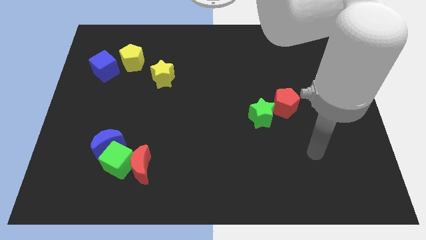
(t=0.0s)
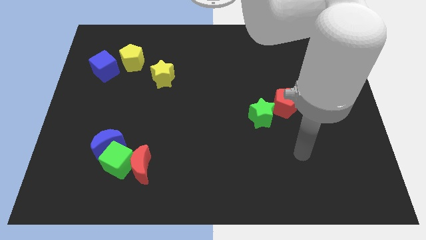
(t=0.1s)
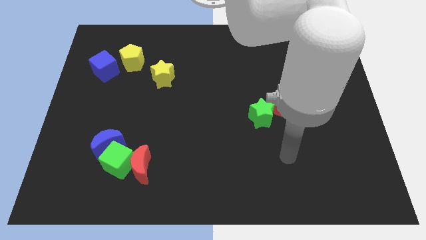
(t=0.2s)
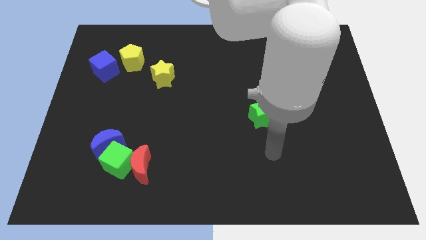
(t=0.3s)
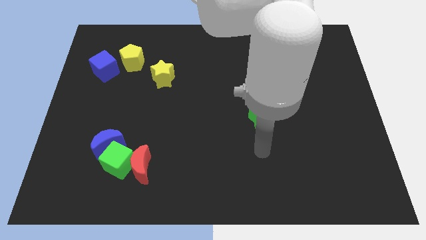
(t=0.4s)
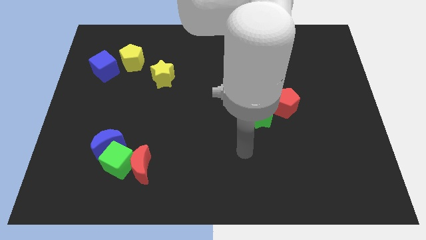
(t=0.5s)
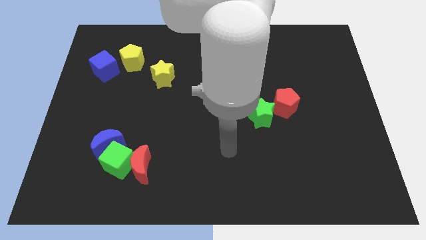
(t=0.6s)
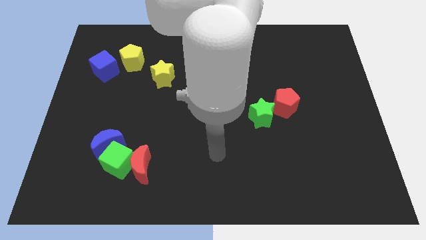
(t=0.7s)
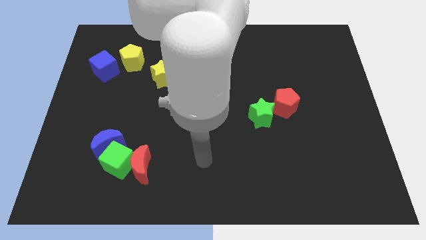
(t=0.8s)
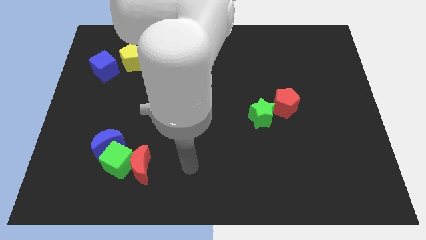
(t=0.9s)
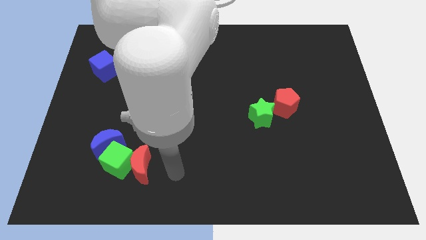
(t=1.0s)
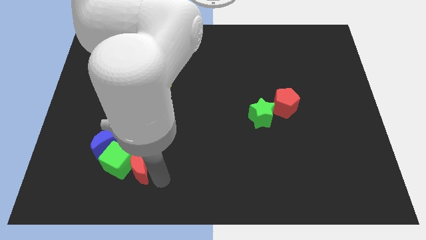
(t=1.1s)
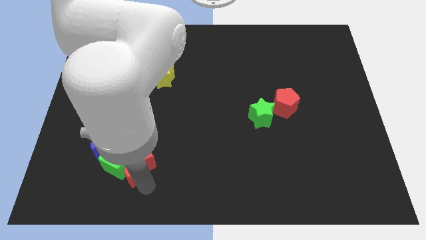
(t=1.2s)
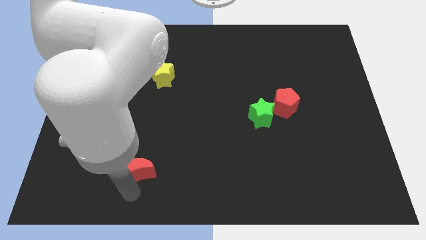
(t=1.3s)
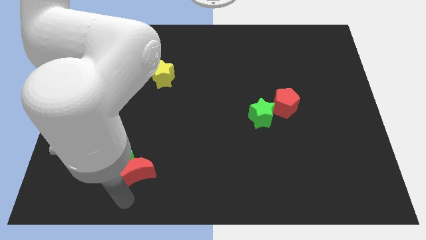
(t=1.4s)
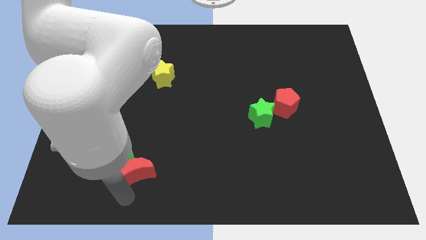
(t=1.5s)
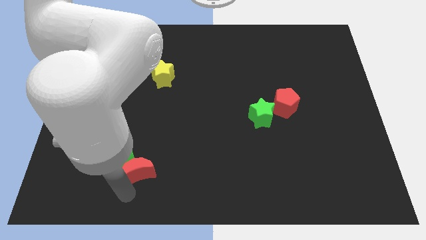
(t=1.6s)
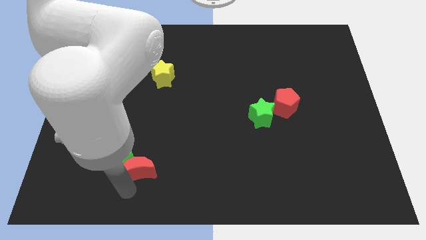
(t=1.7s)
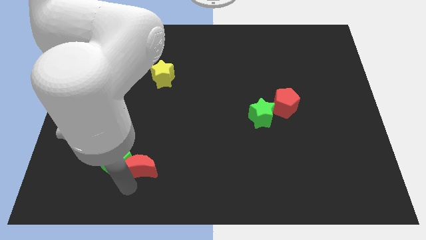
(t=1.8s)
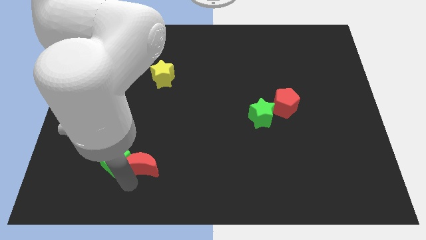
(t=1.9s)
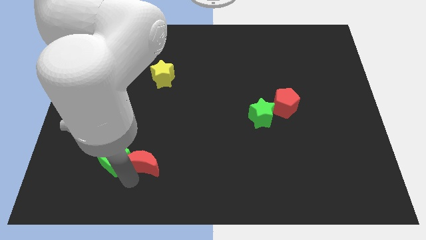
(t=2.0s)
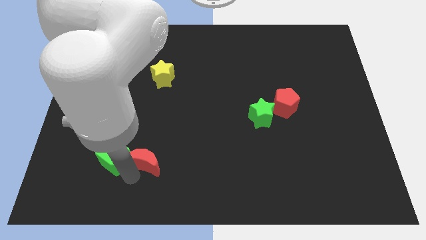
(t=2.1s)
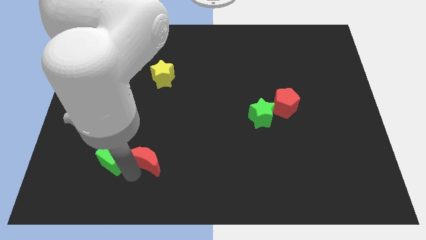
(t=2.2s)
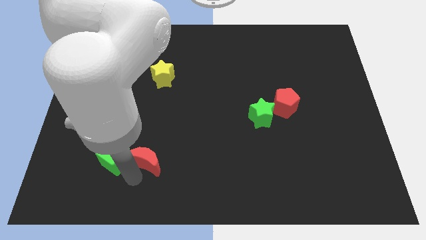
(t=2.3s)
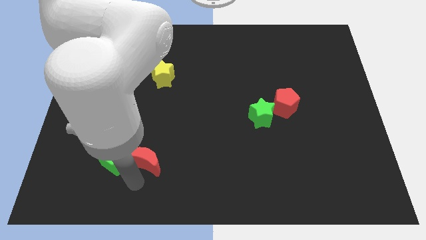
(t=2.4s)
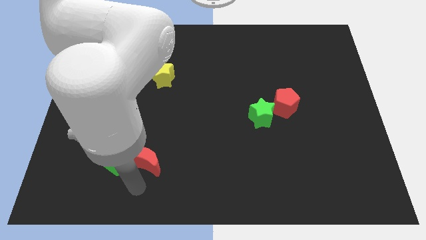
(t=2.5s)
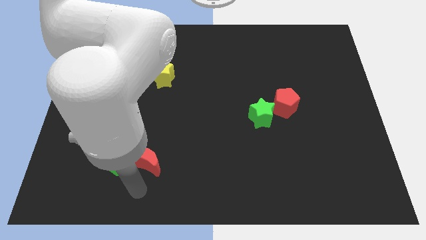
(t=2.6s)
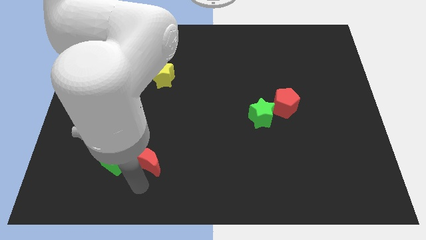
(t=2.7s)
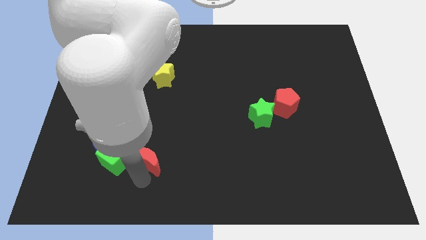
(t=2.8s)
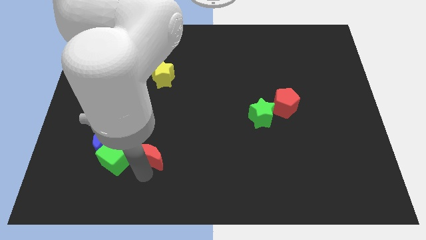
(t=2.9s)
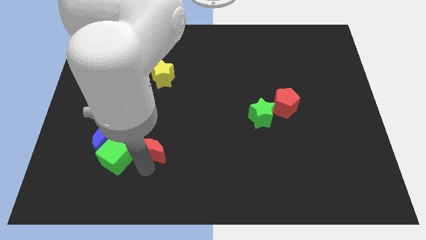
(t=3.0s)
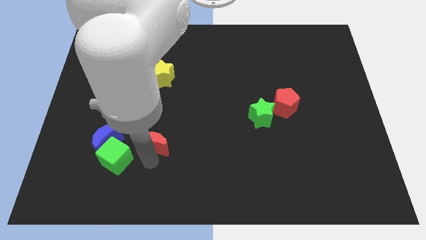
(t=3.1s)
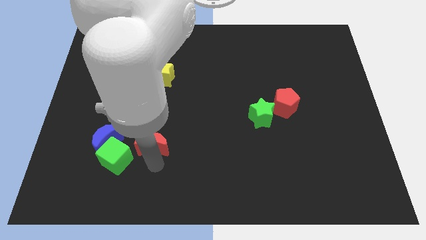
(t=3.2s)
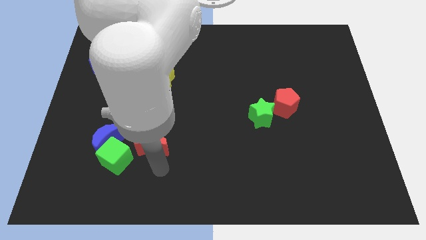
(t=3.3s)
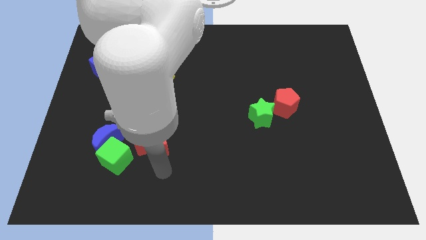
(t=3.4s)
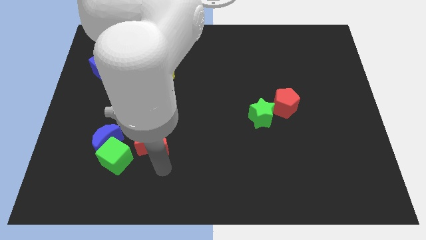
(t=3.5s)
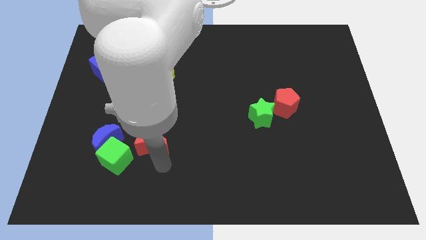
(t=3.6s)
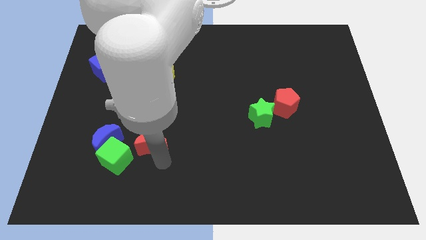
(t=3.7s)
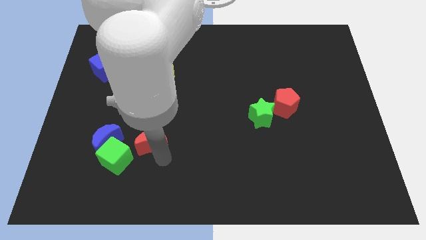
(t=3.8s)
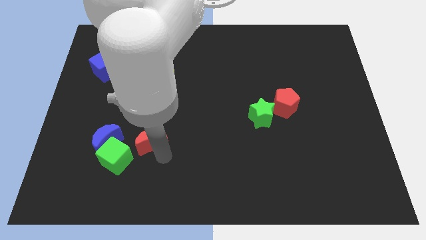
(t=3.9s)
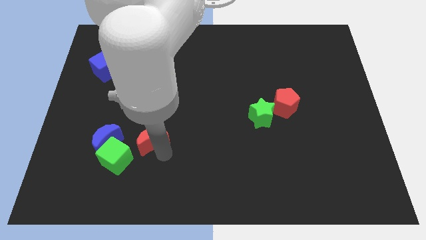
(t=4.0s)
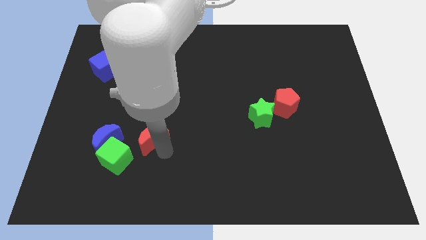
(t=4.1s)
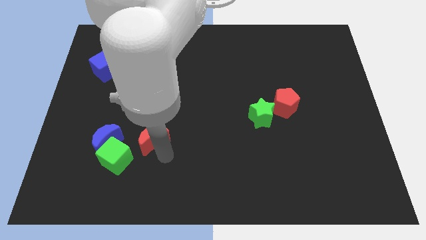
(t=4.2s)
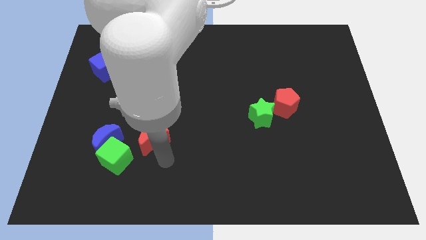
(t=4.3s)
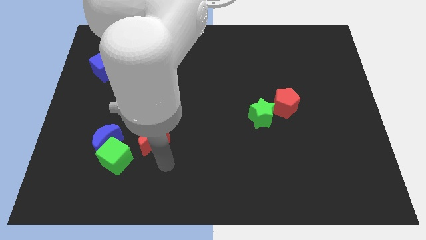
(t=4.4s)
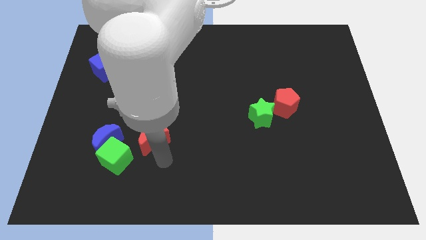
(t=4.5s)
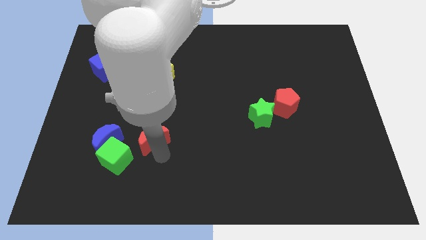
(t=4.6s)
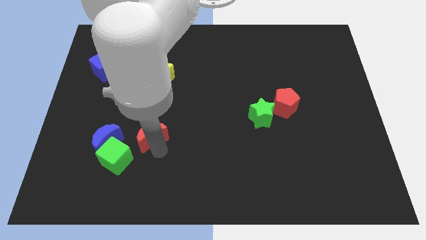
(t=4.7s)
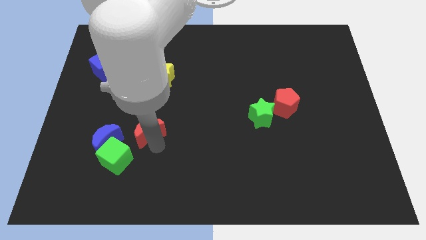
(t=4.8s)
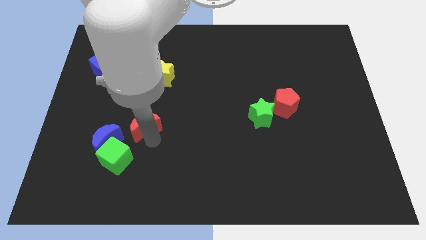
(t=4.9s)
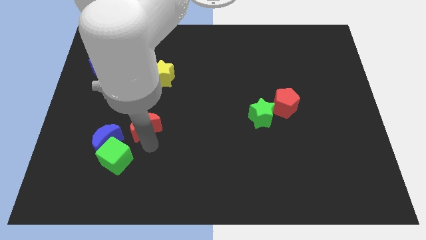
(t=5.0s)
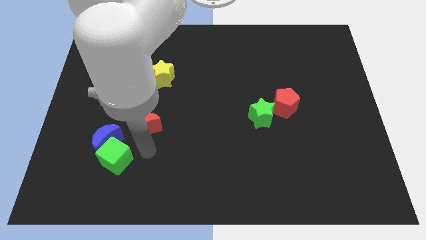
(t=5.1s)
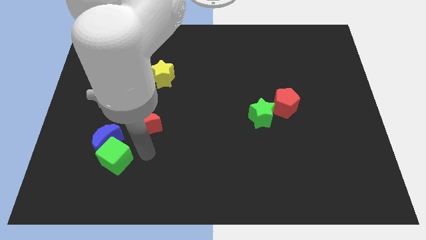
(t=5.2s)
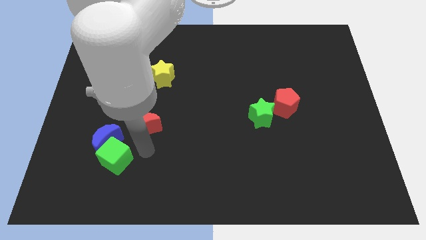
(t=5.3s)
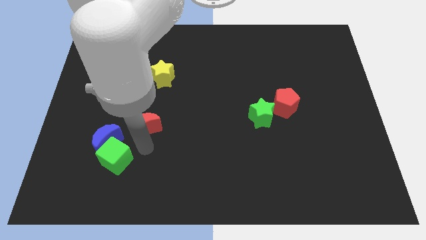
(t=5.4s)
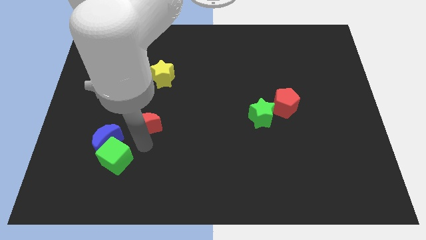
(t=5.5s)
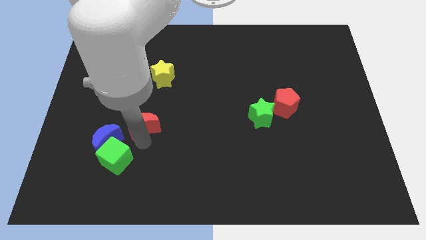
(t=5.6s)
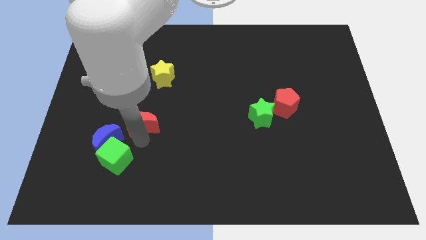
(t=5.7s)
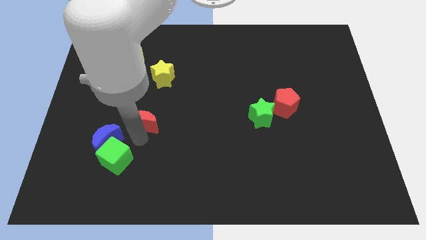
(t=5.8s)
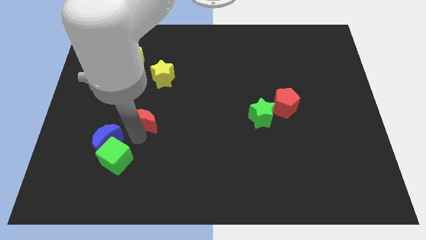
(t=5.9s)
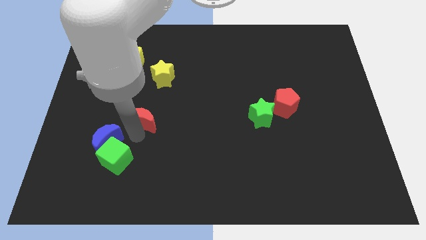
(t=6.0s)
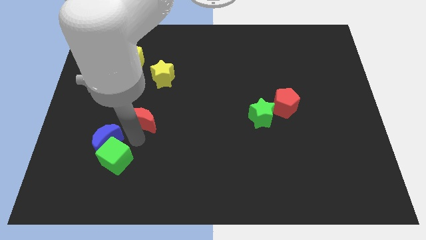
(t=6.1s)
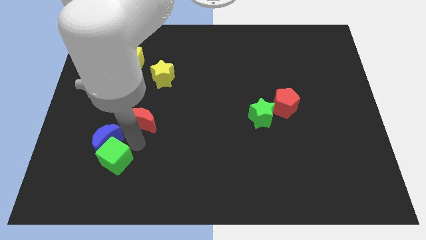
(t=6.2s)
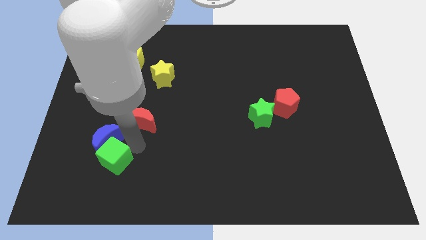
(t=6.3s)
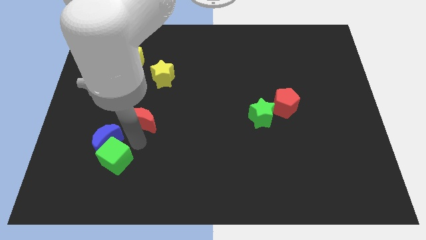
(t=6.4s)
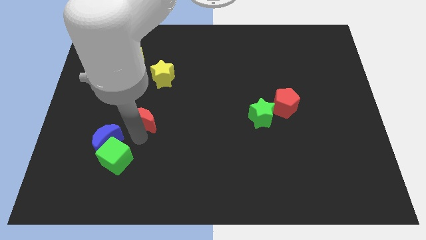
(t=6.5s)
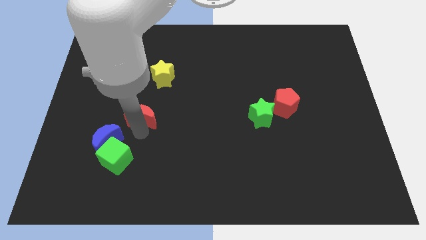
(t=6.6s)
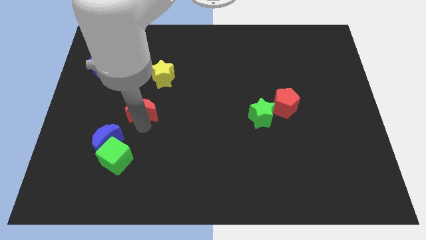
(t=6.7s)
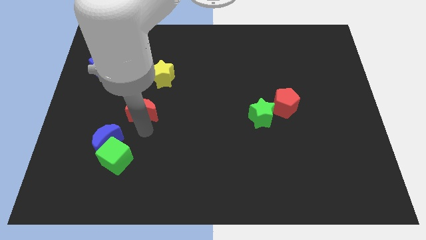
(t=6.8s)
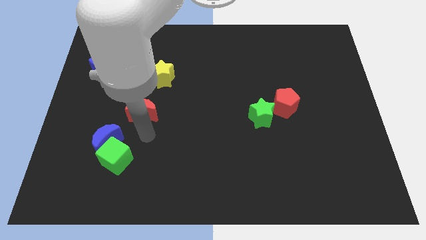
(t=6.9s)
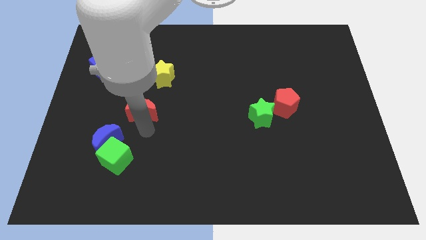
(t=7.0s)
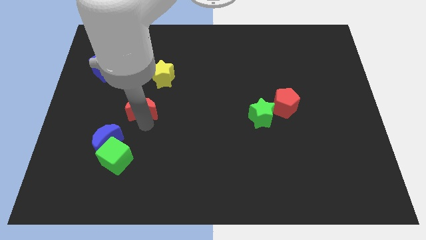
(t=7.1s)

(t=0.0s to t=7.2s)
push the red moon to the bottom left of the yellow star
